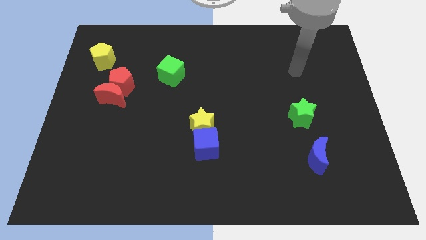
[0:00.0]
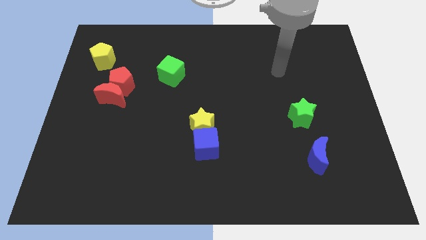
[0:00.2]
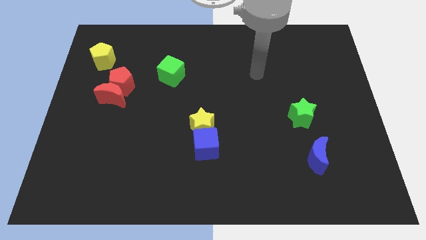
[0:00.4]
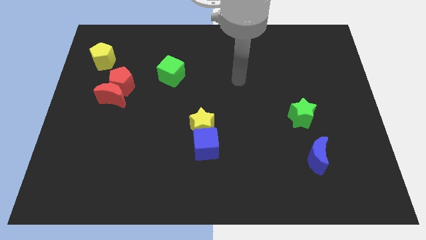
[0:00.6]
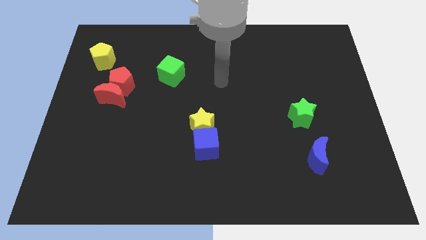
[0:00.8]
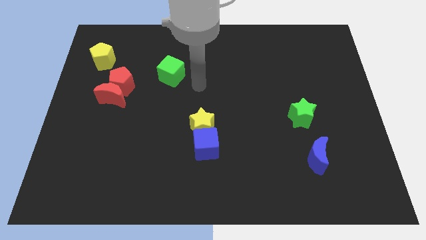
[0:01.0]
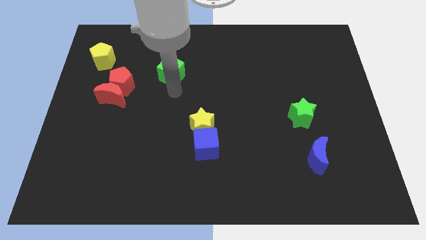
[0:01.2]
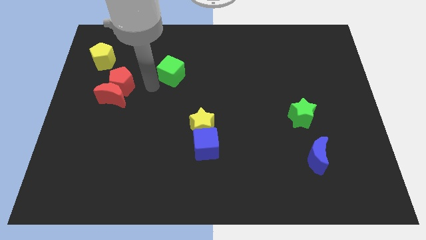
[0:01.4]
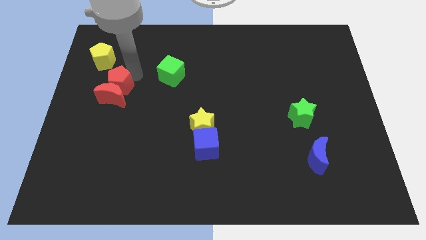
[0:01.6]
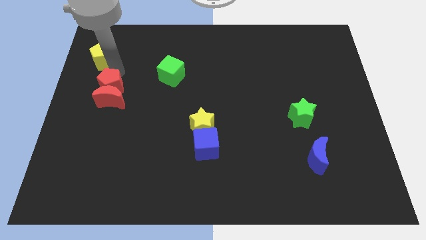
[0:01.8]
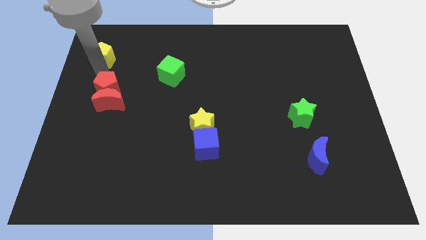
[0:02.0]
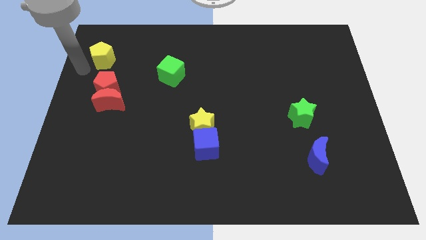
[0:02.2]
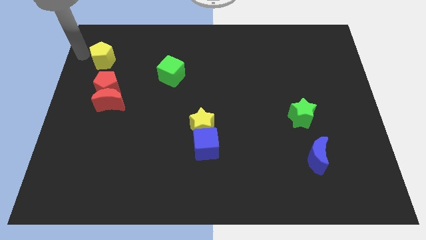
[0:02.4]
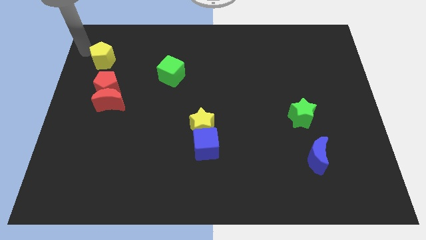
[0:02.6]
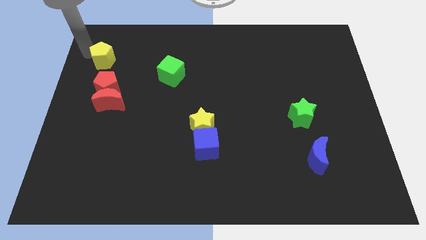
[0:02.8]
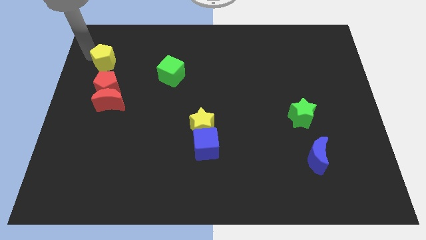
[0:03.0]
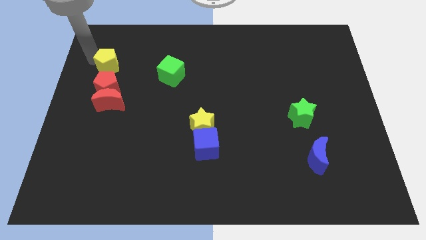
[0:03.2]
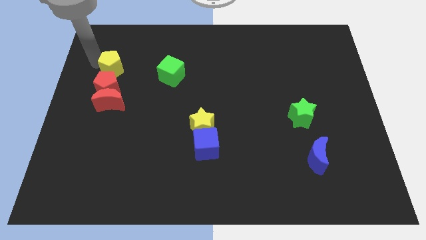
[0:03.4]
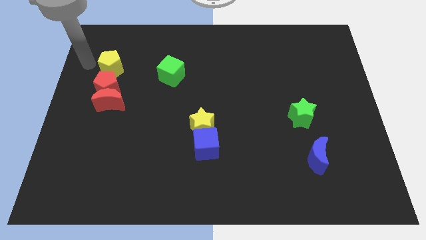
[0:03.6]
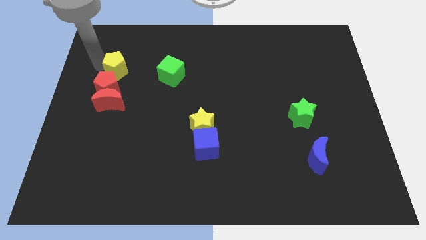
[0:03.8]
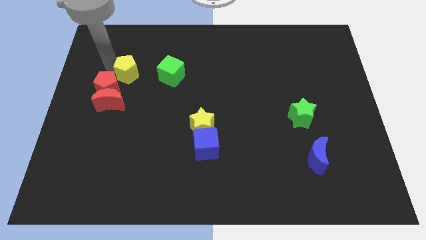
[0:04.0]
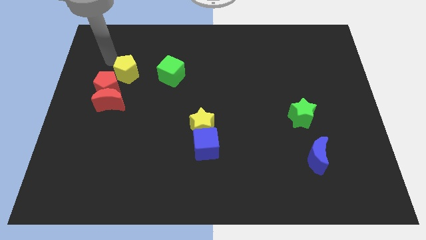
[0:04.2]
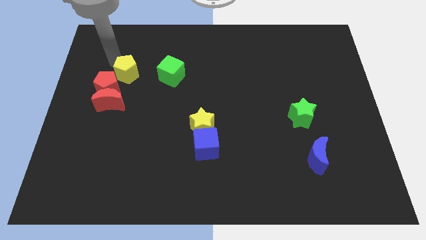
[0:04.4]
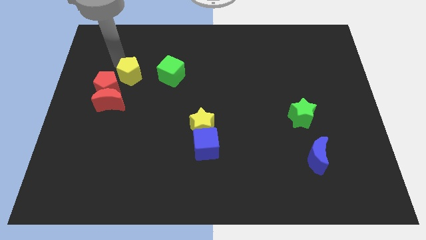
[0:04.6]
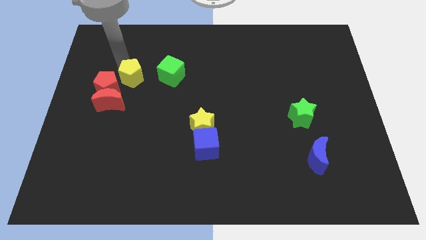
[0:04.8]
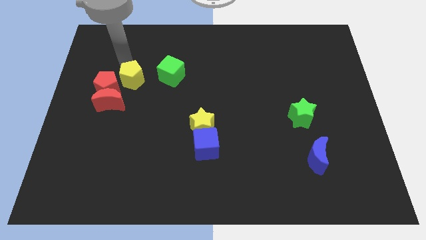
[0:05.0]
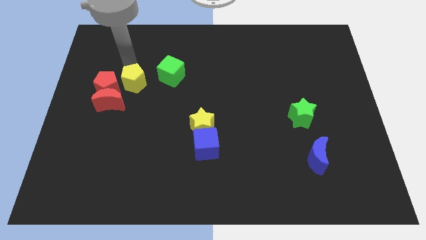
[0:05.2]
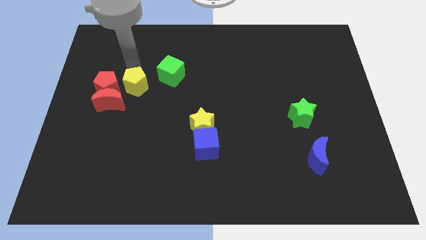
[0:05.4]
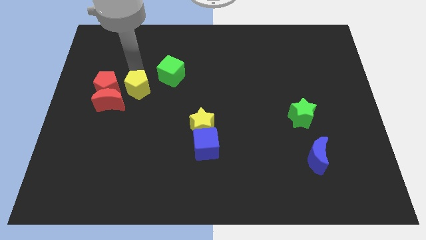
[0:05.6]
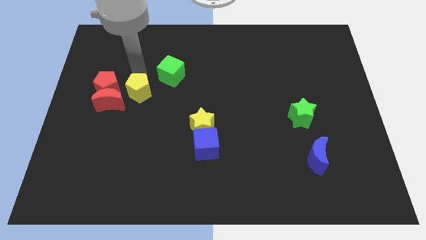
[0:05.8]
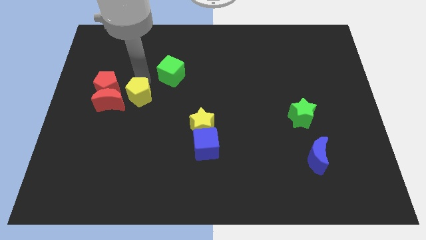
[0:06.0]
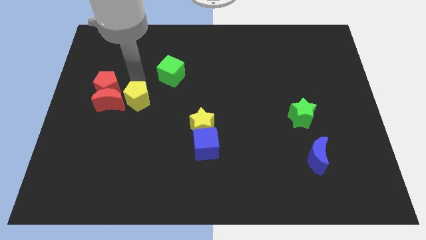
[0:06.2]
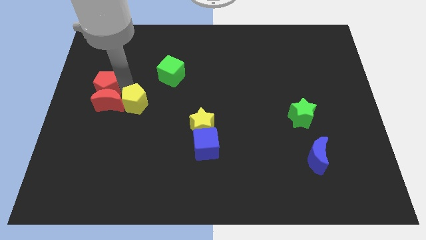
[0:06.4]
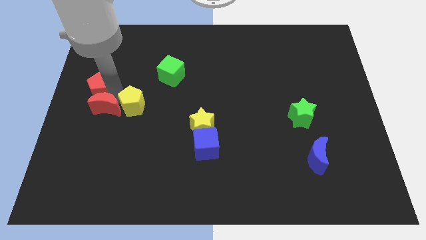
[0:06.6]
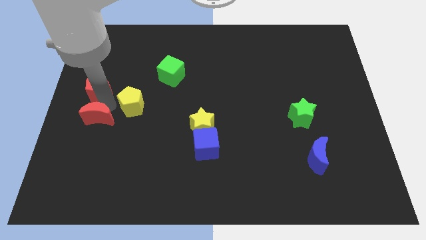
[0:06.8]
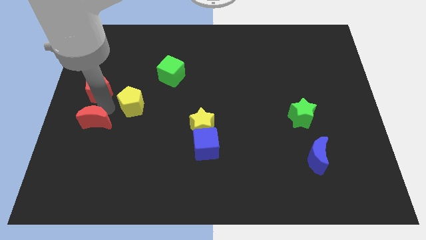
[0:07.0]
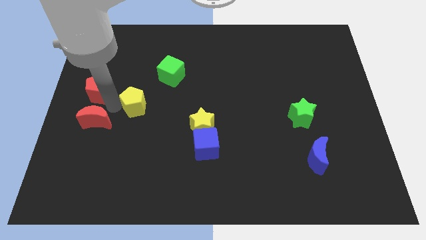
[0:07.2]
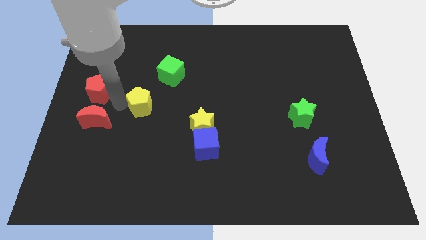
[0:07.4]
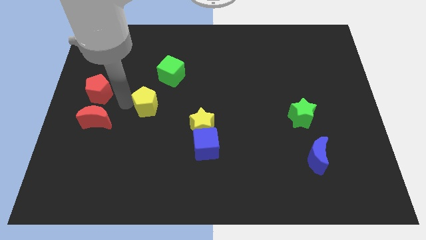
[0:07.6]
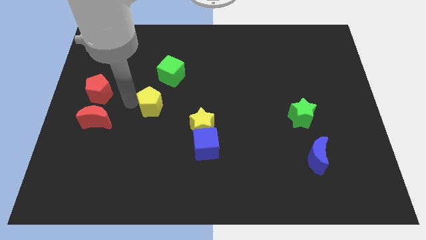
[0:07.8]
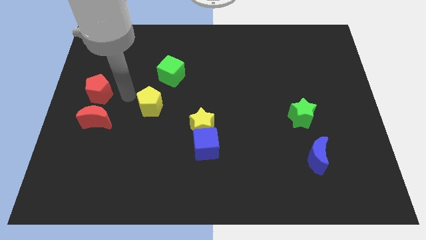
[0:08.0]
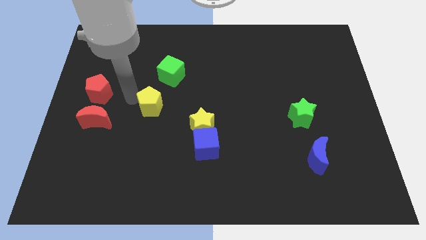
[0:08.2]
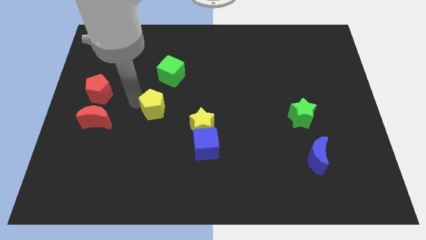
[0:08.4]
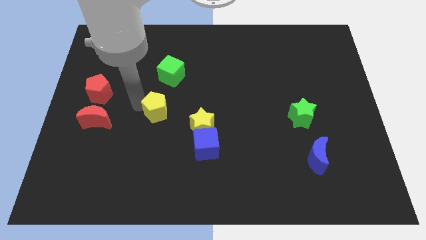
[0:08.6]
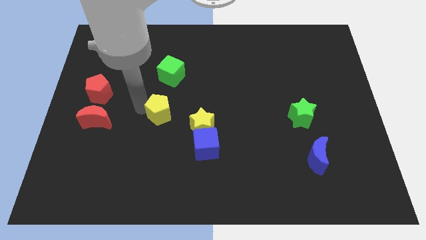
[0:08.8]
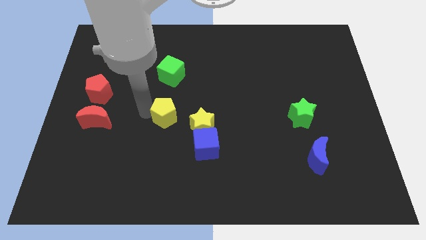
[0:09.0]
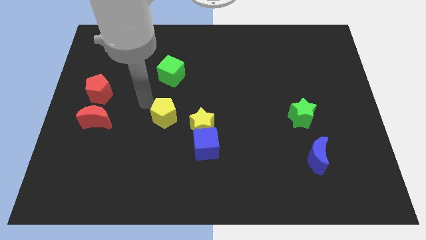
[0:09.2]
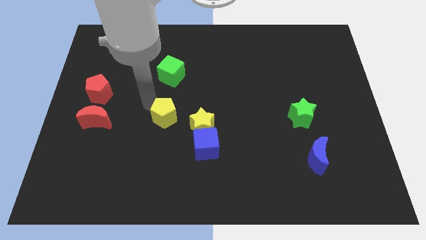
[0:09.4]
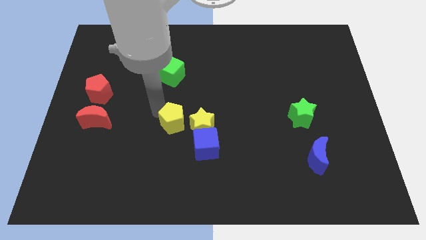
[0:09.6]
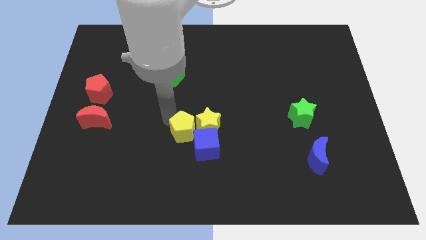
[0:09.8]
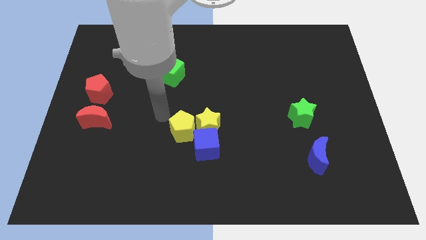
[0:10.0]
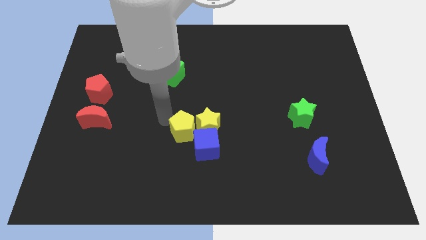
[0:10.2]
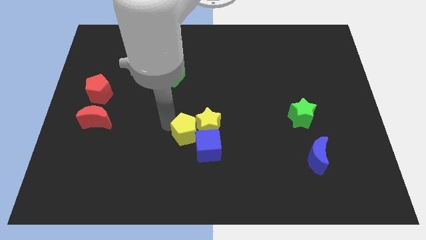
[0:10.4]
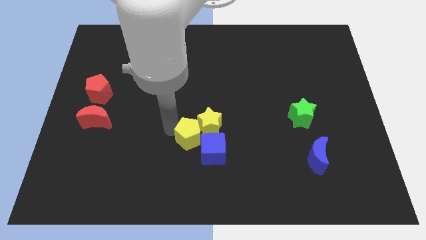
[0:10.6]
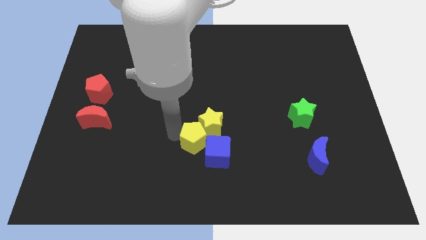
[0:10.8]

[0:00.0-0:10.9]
push the yellow pentagon towards the blue cube

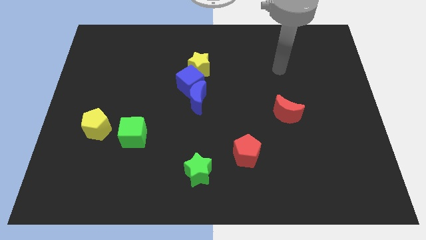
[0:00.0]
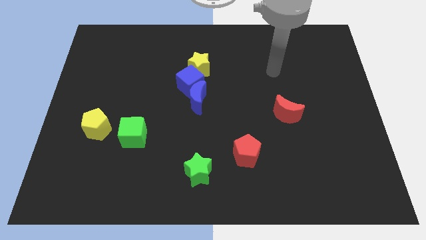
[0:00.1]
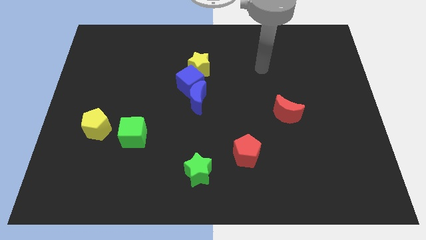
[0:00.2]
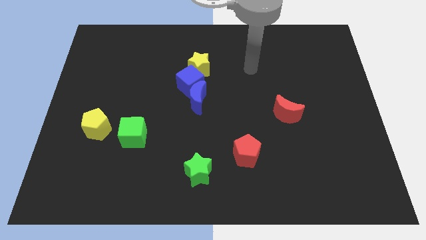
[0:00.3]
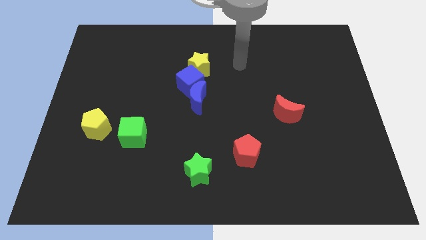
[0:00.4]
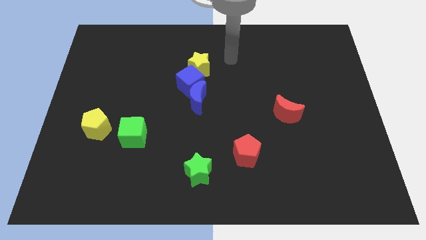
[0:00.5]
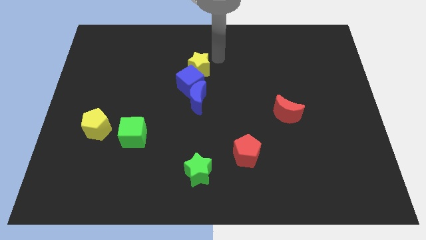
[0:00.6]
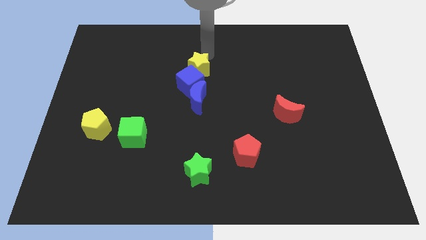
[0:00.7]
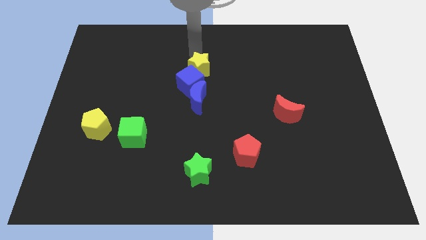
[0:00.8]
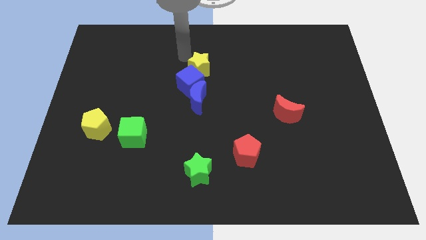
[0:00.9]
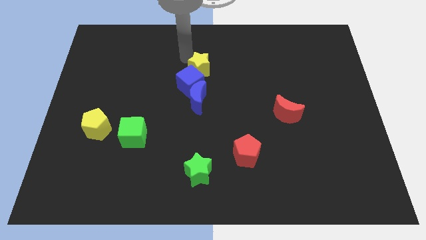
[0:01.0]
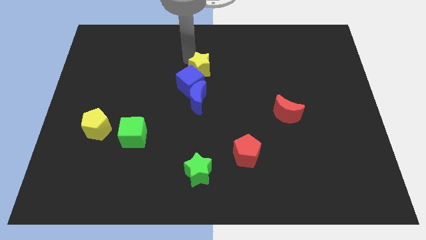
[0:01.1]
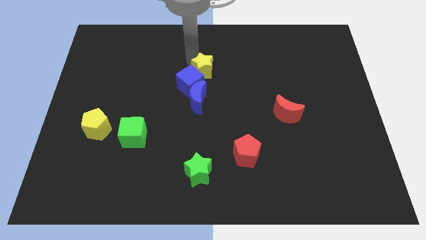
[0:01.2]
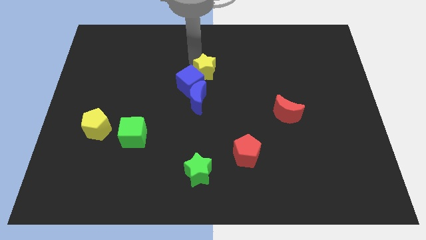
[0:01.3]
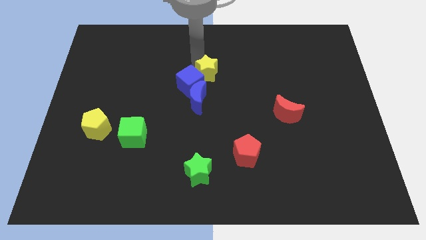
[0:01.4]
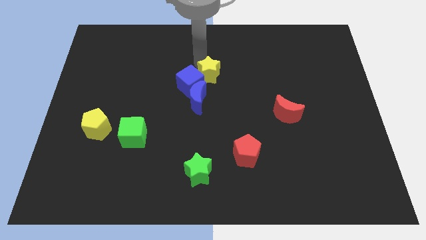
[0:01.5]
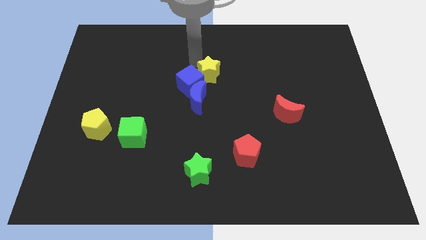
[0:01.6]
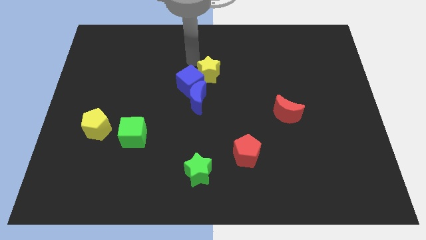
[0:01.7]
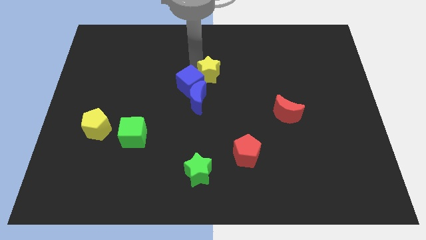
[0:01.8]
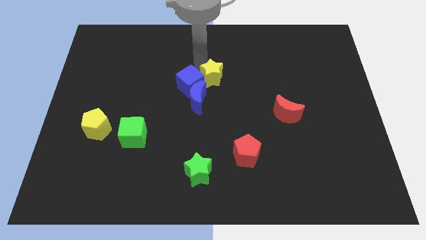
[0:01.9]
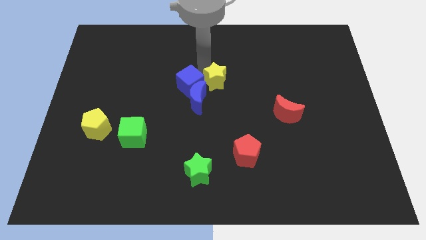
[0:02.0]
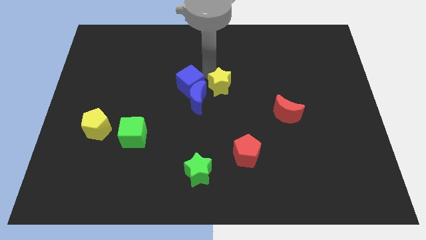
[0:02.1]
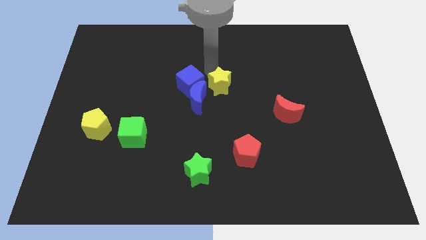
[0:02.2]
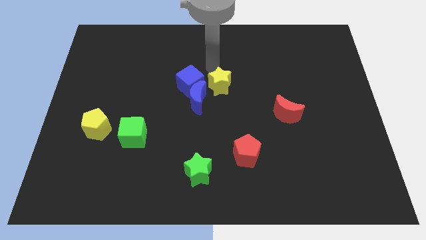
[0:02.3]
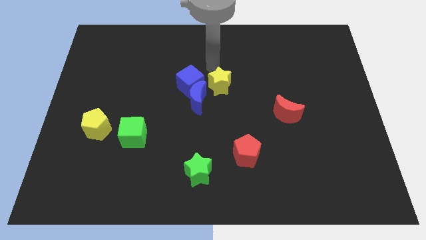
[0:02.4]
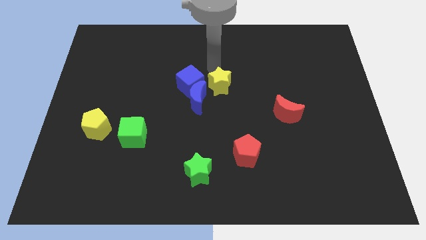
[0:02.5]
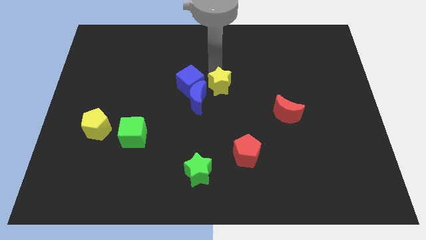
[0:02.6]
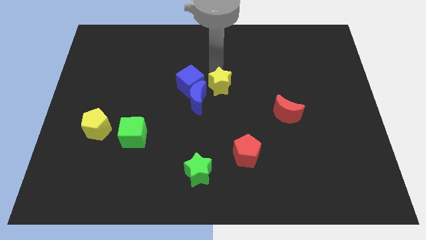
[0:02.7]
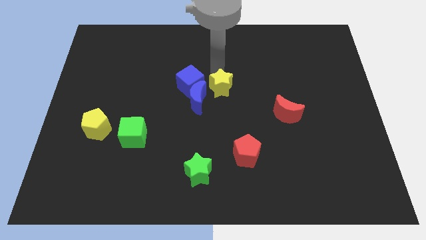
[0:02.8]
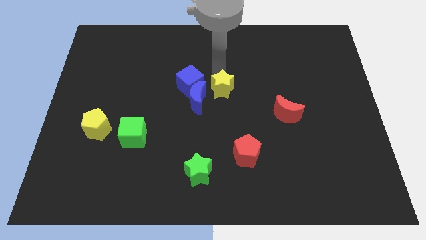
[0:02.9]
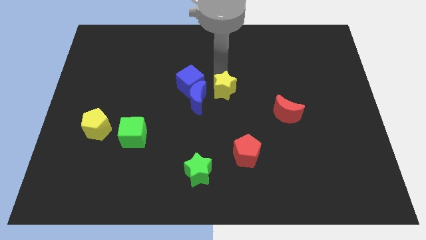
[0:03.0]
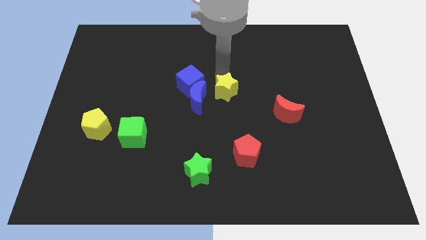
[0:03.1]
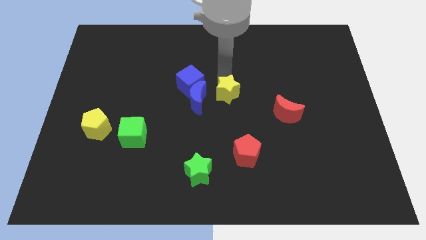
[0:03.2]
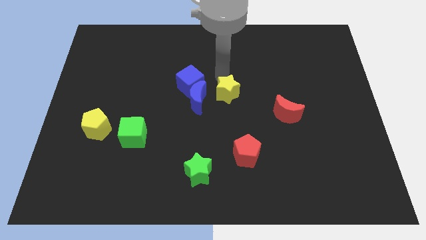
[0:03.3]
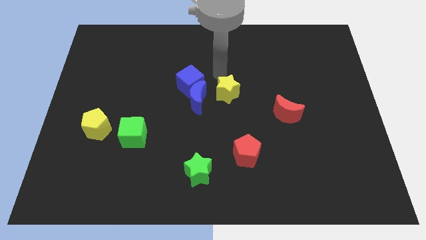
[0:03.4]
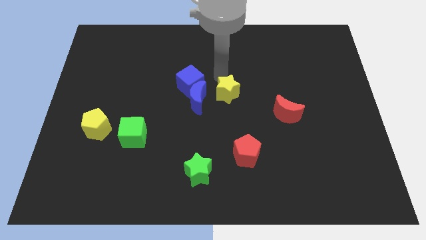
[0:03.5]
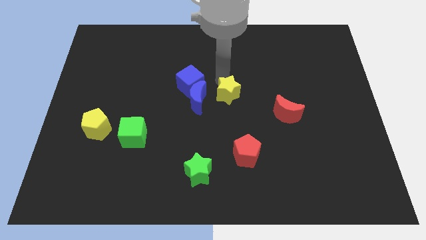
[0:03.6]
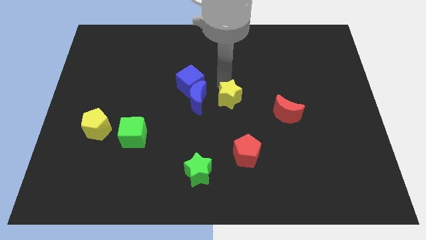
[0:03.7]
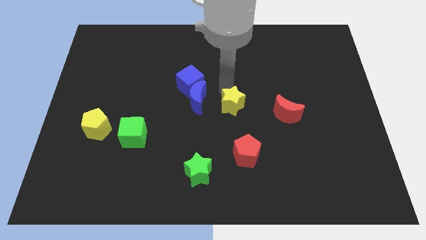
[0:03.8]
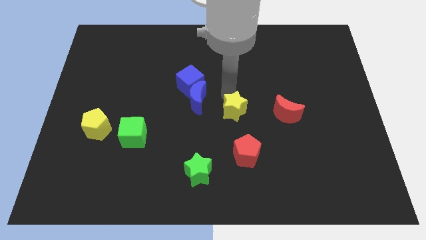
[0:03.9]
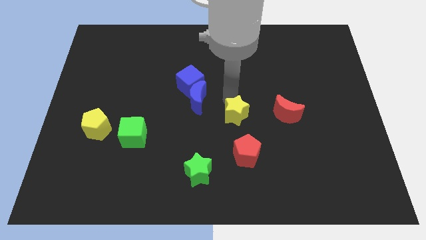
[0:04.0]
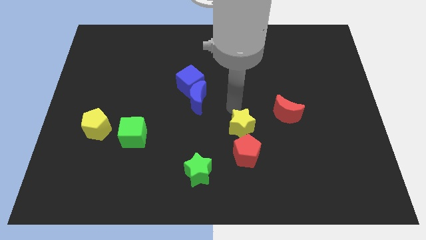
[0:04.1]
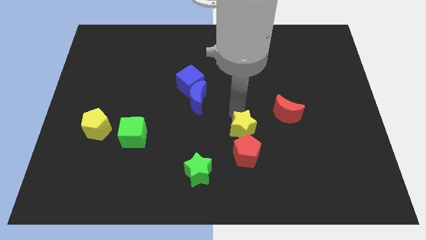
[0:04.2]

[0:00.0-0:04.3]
push the yellow star close to the red pentagon
